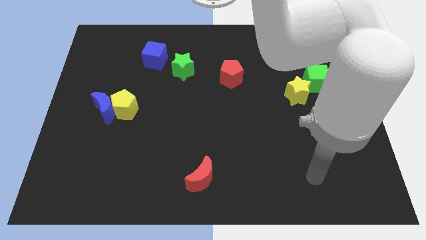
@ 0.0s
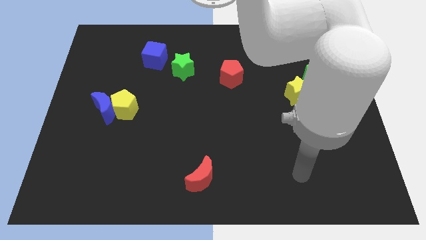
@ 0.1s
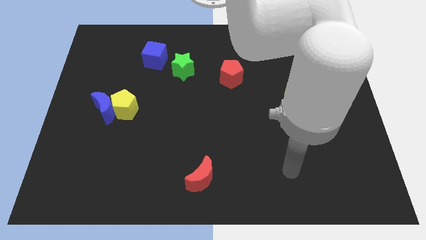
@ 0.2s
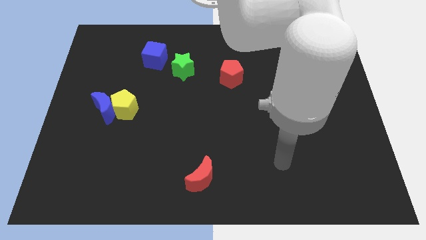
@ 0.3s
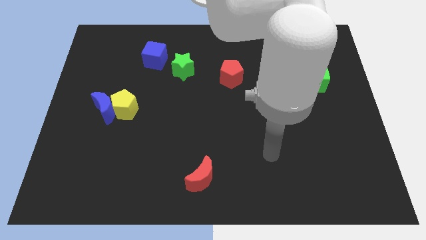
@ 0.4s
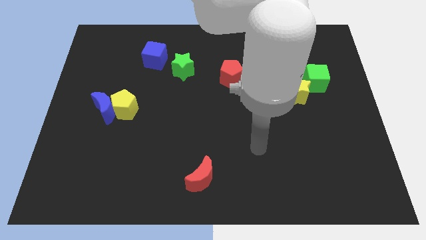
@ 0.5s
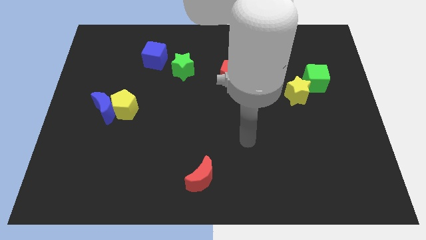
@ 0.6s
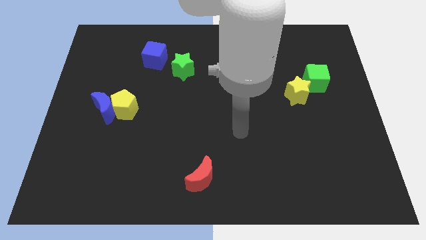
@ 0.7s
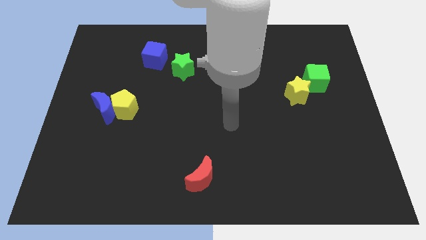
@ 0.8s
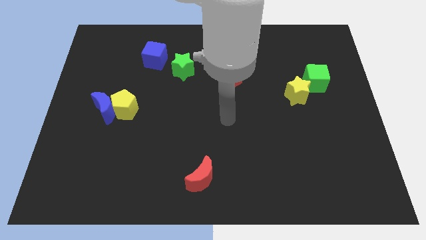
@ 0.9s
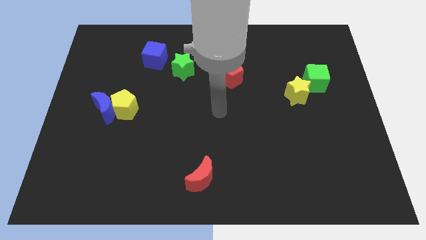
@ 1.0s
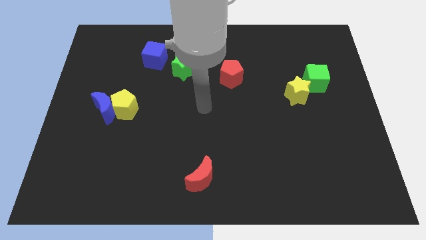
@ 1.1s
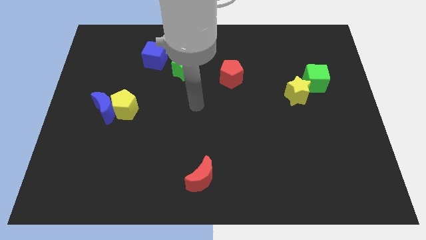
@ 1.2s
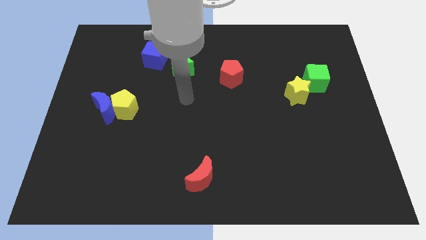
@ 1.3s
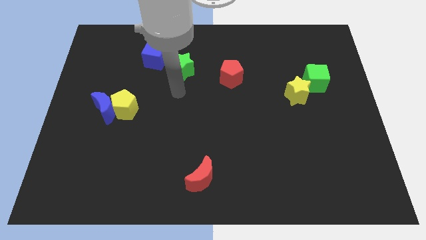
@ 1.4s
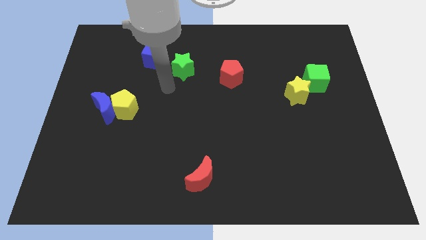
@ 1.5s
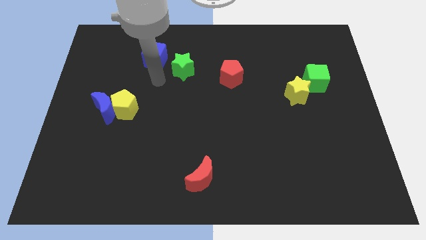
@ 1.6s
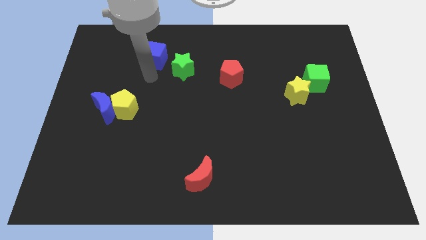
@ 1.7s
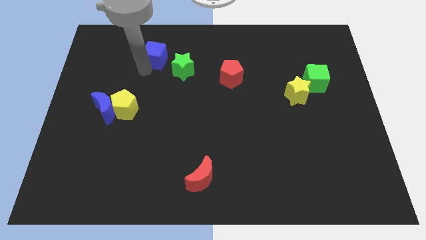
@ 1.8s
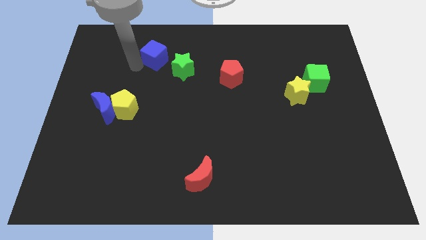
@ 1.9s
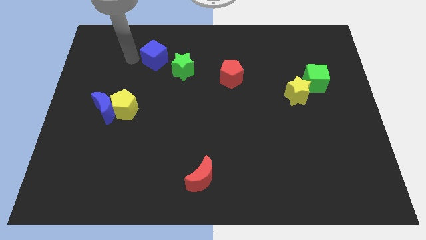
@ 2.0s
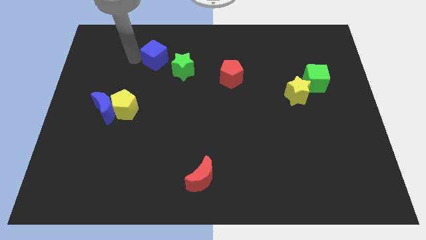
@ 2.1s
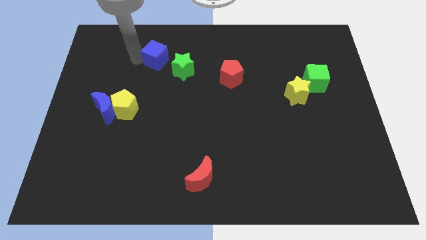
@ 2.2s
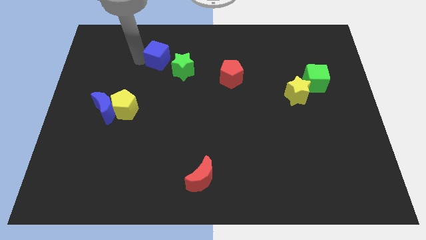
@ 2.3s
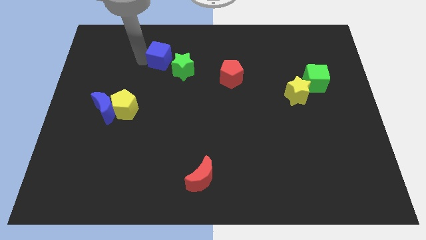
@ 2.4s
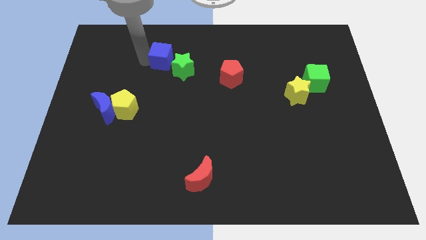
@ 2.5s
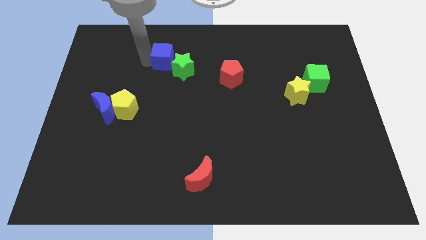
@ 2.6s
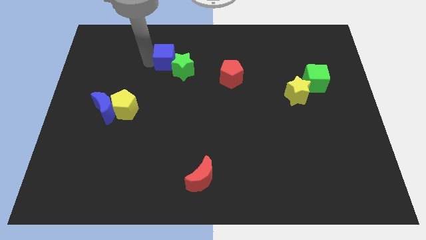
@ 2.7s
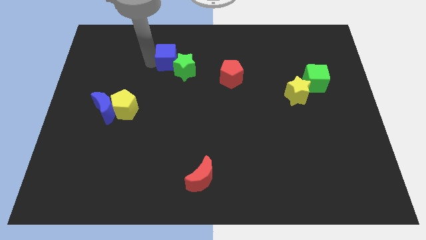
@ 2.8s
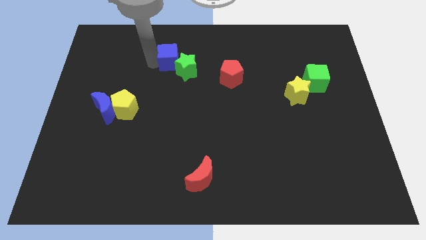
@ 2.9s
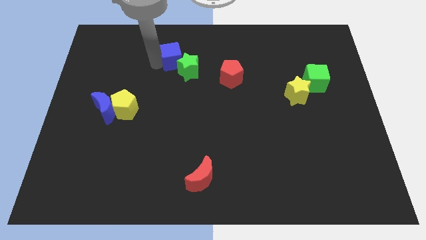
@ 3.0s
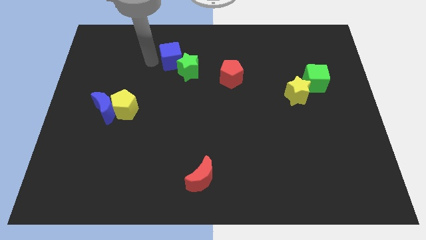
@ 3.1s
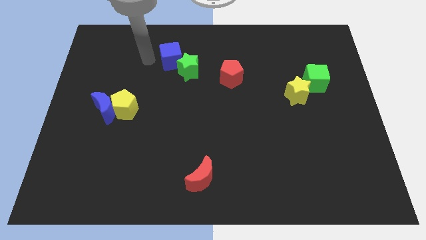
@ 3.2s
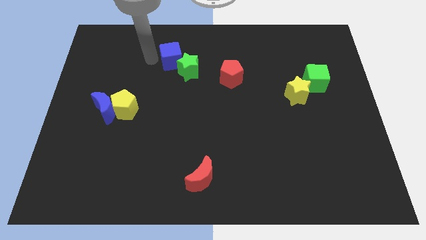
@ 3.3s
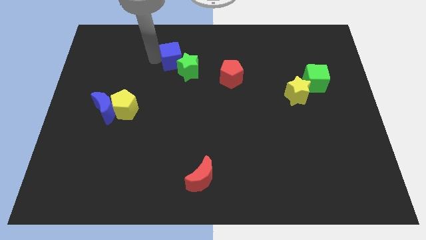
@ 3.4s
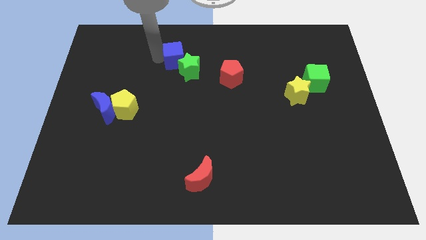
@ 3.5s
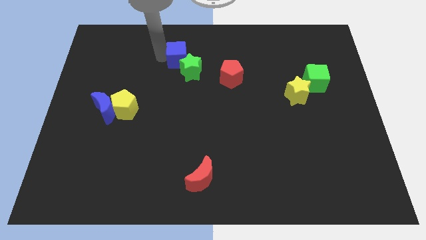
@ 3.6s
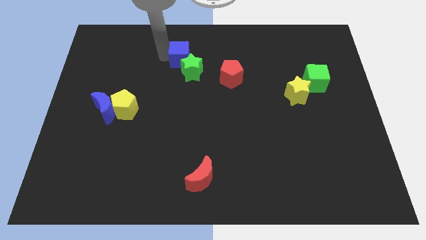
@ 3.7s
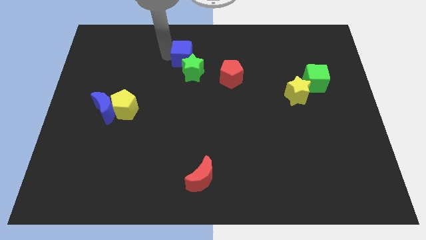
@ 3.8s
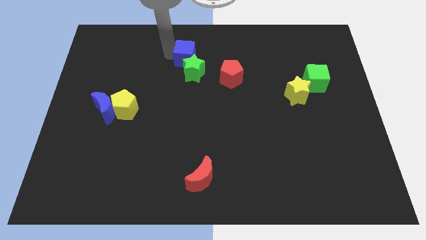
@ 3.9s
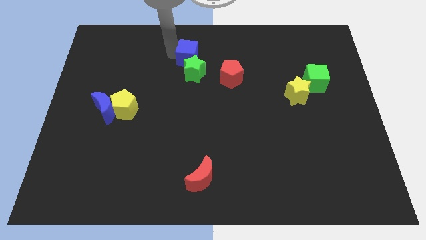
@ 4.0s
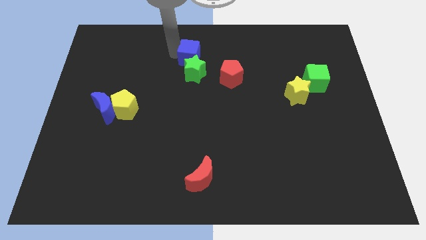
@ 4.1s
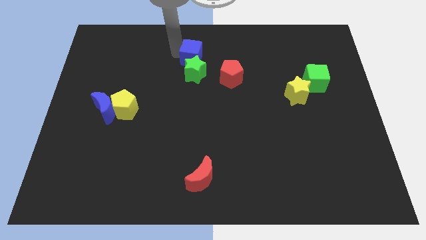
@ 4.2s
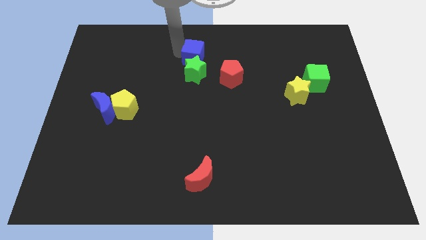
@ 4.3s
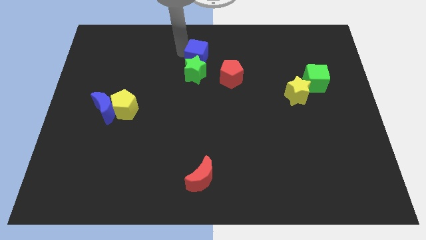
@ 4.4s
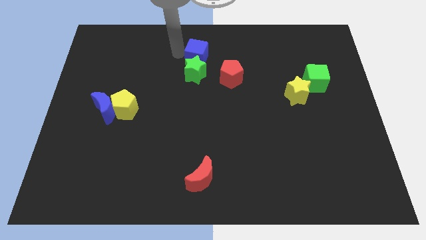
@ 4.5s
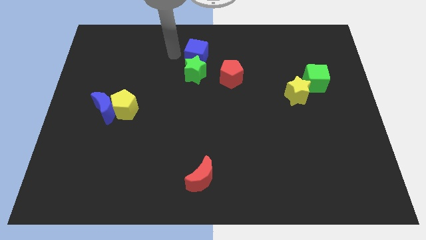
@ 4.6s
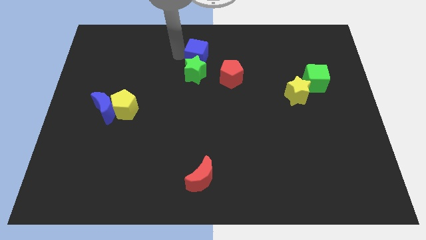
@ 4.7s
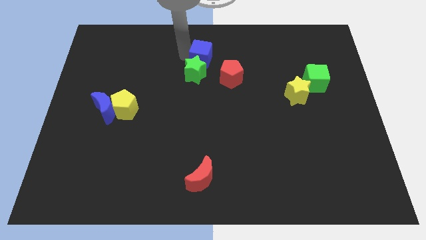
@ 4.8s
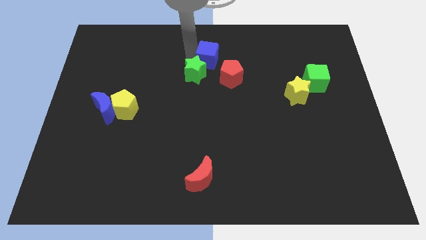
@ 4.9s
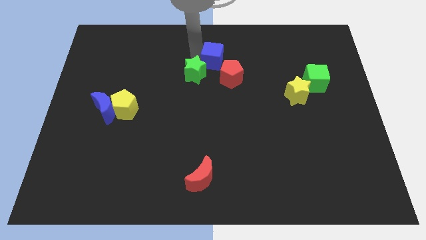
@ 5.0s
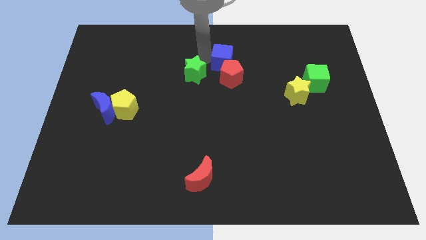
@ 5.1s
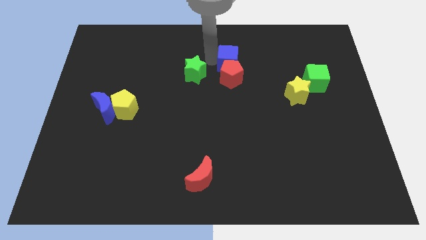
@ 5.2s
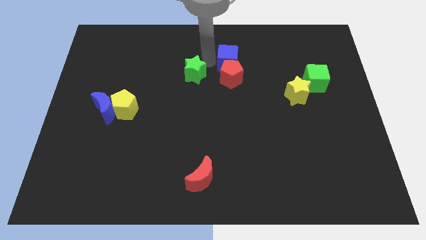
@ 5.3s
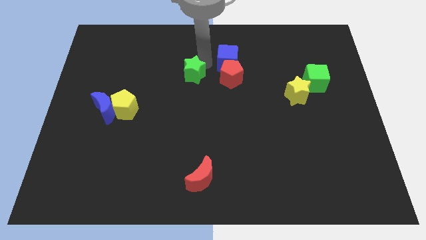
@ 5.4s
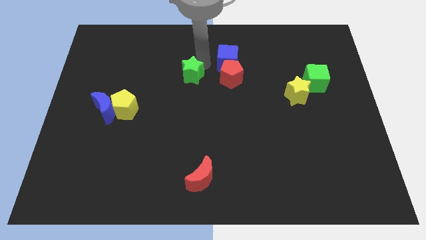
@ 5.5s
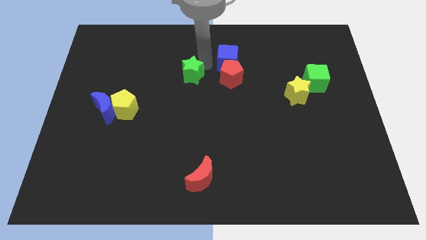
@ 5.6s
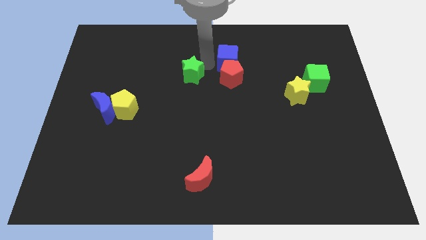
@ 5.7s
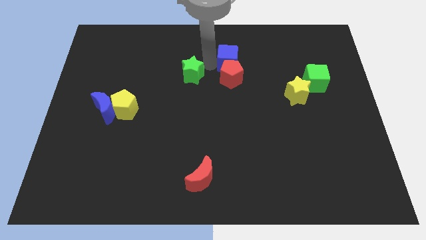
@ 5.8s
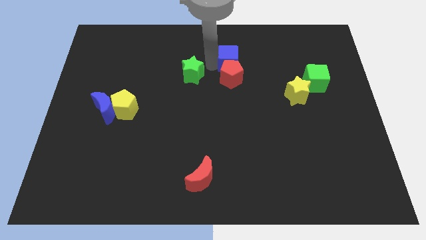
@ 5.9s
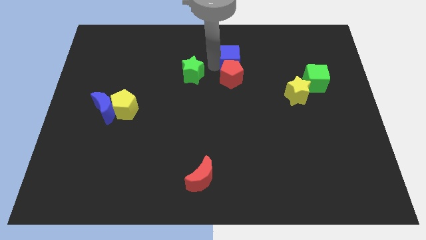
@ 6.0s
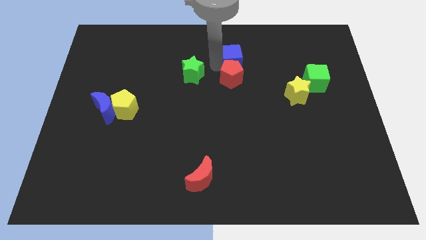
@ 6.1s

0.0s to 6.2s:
slide the blue cube to the right

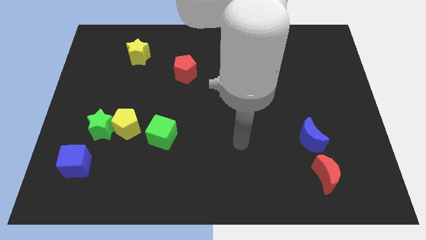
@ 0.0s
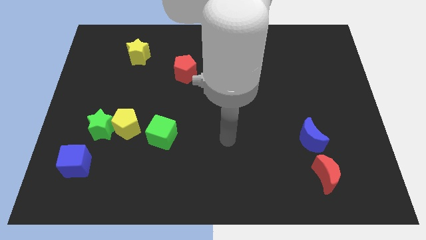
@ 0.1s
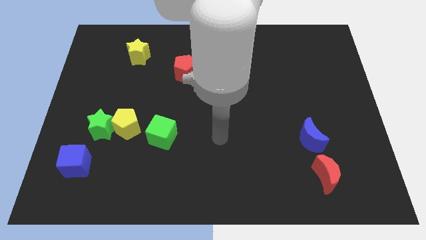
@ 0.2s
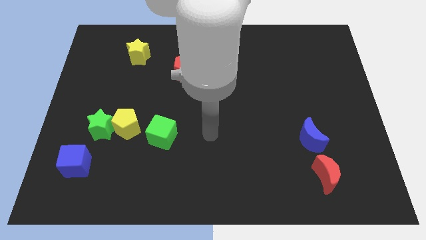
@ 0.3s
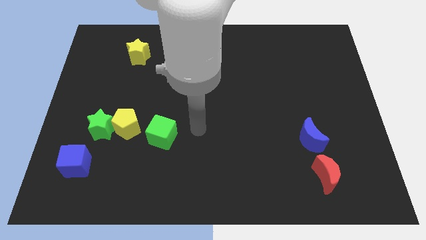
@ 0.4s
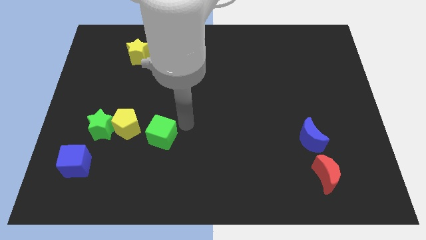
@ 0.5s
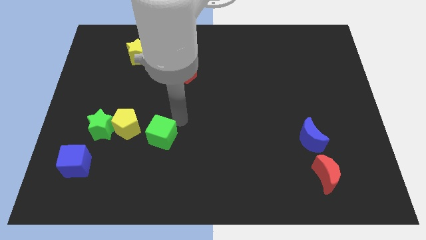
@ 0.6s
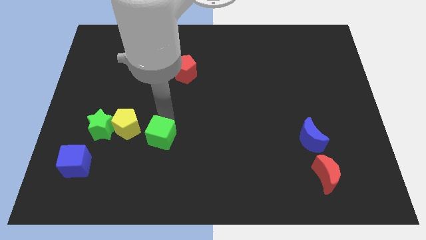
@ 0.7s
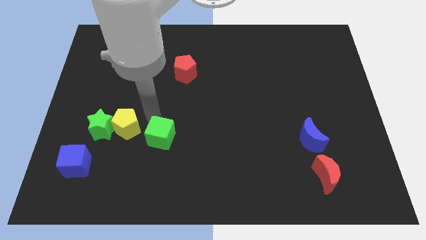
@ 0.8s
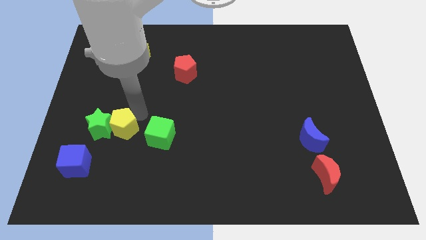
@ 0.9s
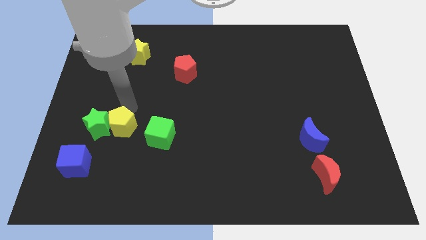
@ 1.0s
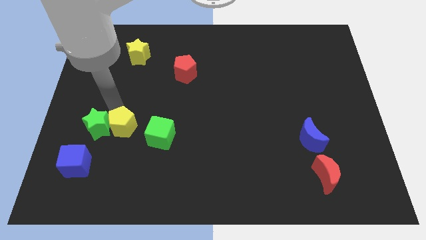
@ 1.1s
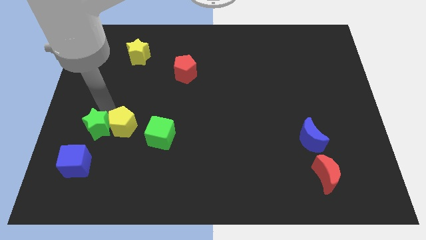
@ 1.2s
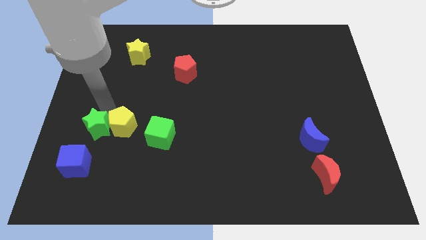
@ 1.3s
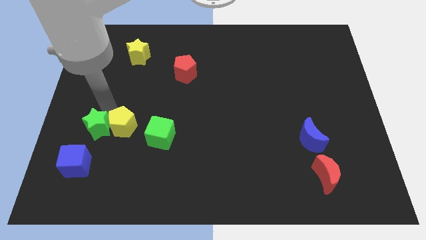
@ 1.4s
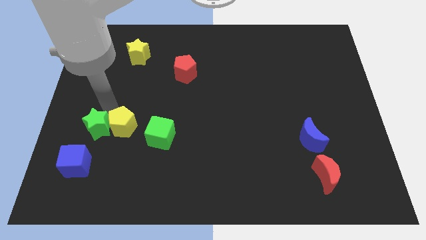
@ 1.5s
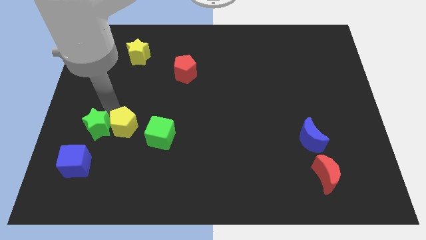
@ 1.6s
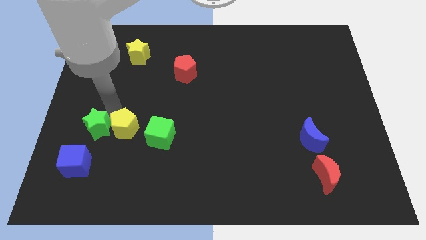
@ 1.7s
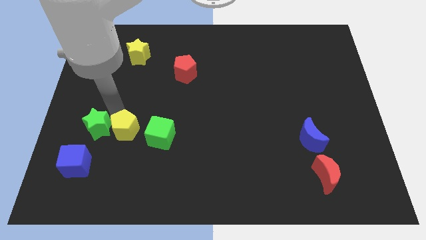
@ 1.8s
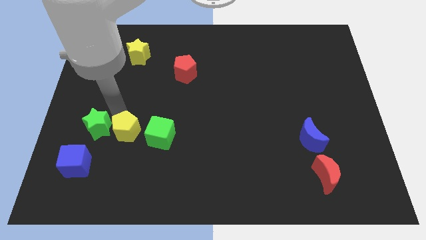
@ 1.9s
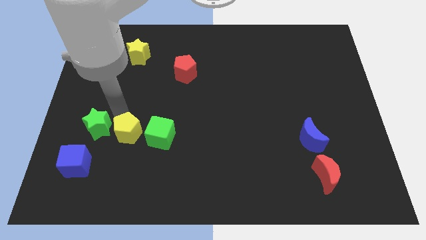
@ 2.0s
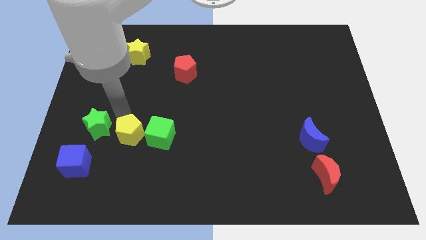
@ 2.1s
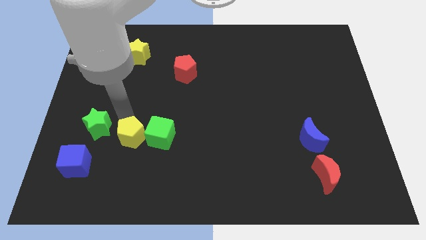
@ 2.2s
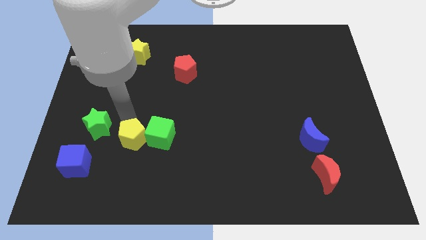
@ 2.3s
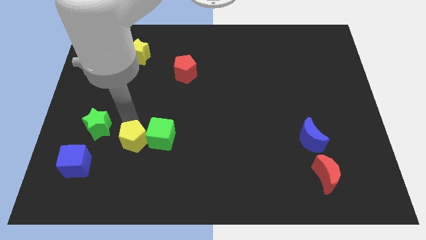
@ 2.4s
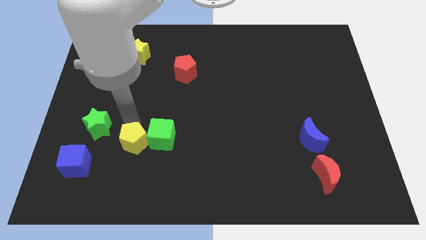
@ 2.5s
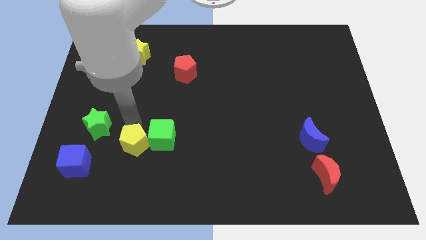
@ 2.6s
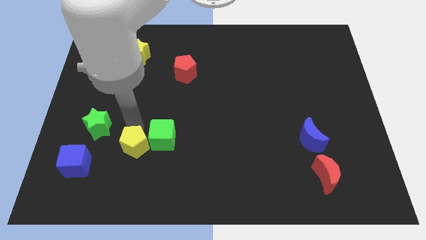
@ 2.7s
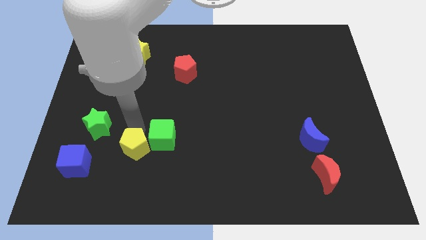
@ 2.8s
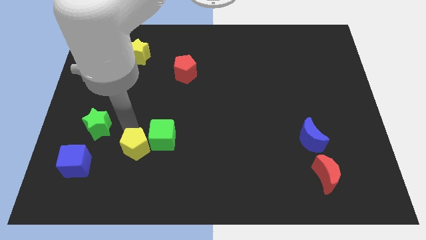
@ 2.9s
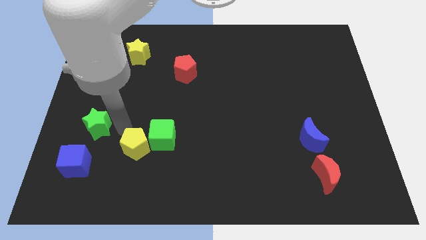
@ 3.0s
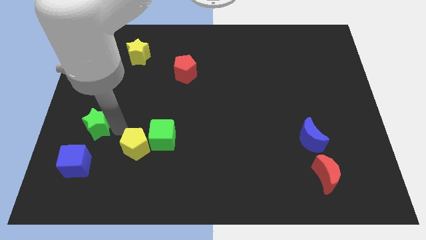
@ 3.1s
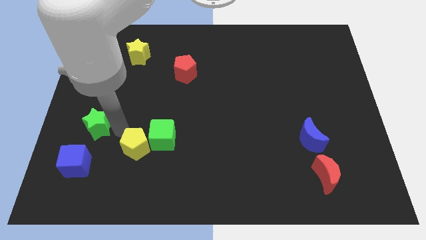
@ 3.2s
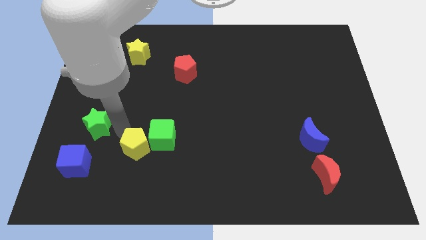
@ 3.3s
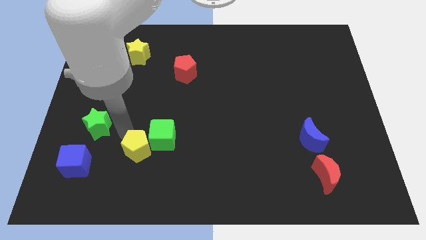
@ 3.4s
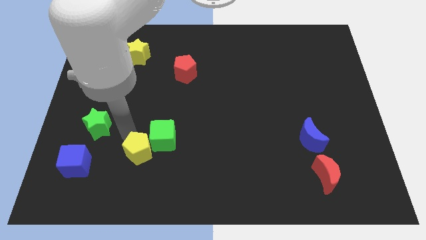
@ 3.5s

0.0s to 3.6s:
slightly move the yellow pentagon downwards and then to the right
